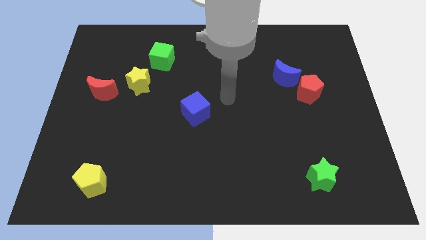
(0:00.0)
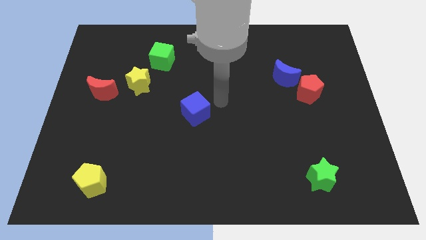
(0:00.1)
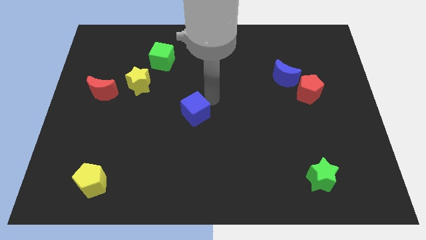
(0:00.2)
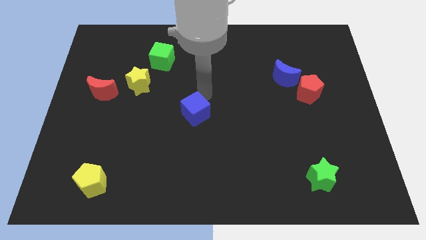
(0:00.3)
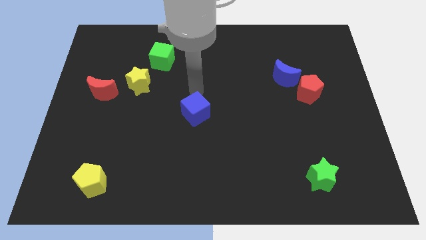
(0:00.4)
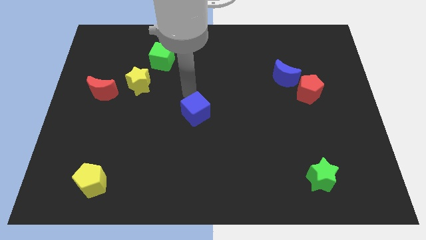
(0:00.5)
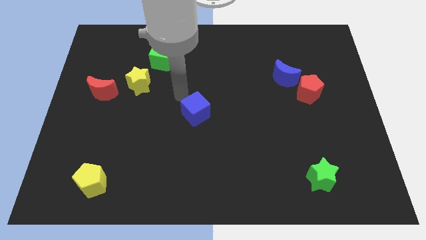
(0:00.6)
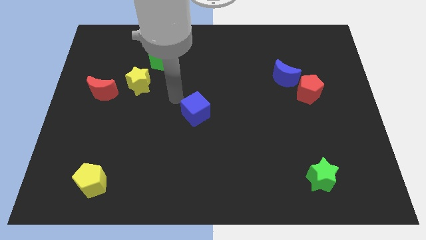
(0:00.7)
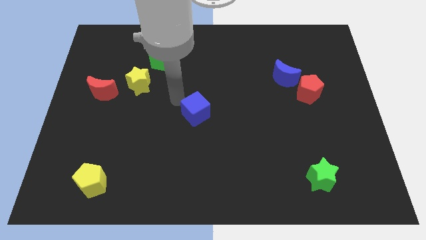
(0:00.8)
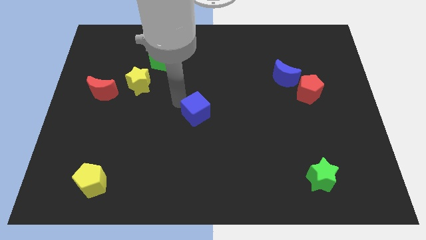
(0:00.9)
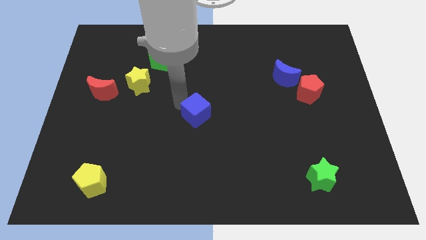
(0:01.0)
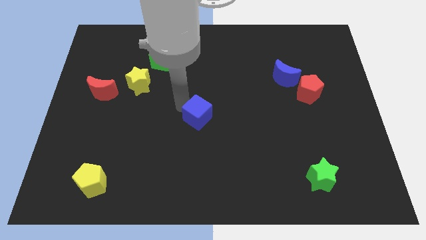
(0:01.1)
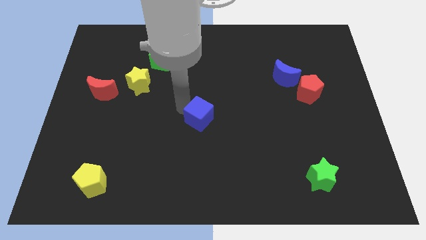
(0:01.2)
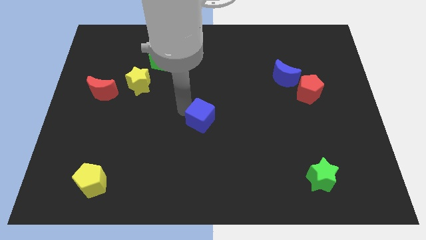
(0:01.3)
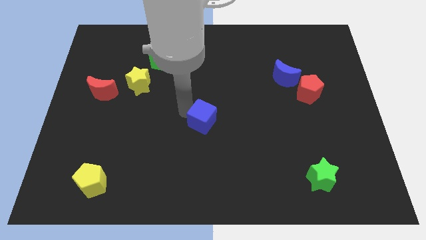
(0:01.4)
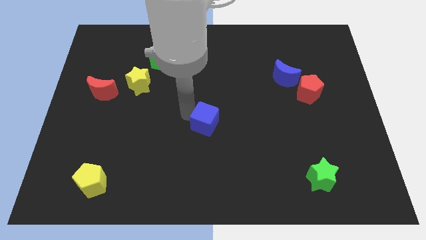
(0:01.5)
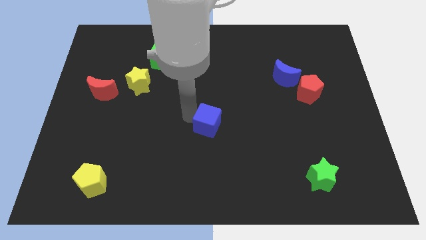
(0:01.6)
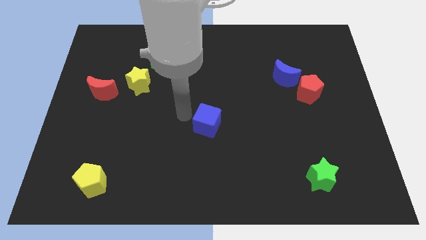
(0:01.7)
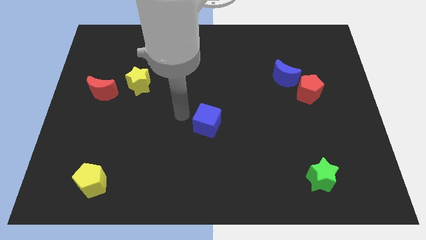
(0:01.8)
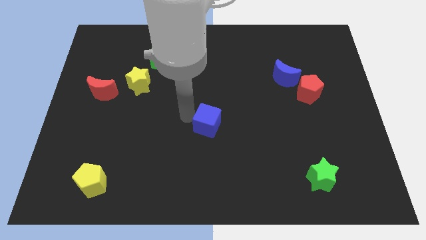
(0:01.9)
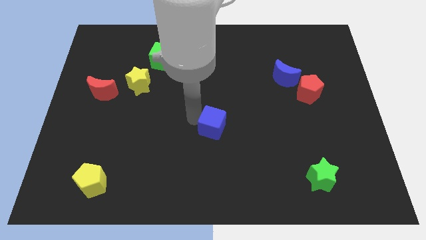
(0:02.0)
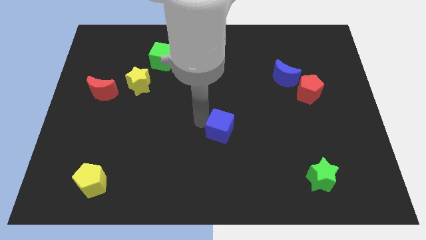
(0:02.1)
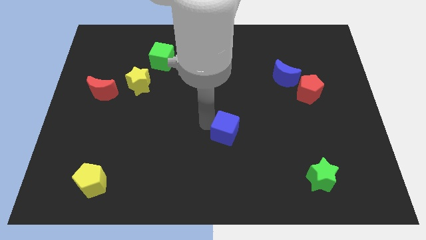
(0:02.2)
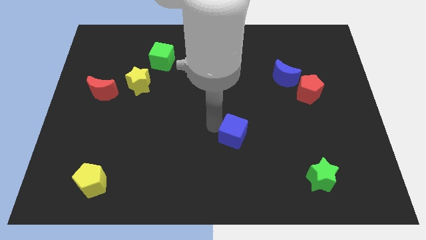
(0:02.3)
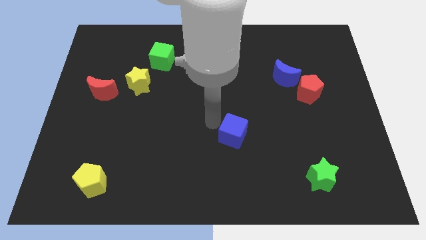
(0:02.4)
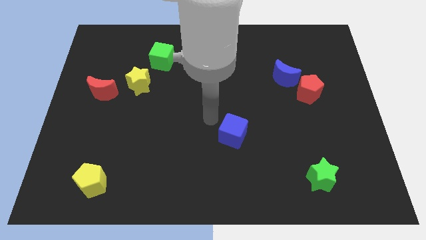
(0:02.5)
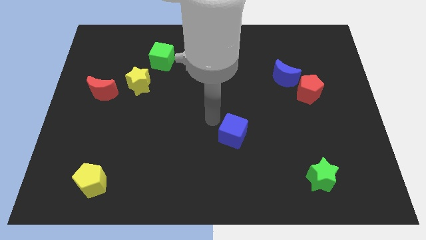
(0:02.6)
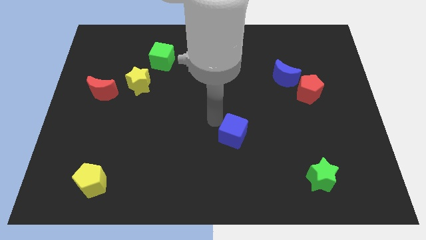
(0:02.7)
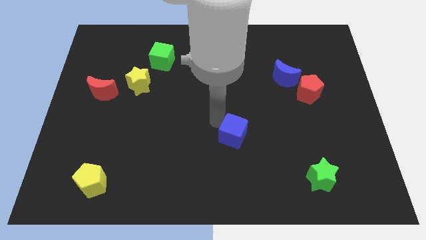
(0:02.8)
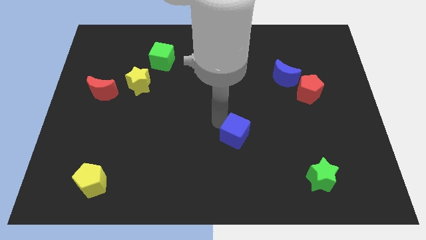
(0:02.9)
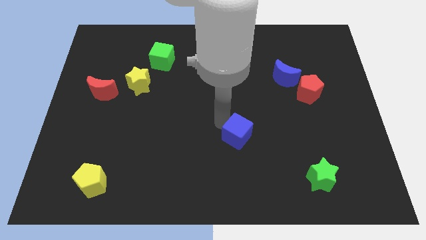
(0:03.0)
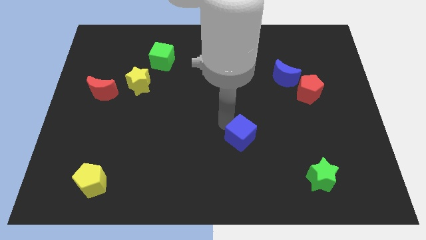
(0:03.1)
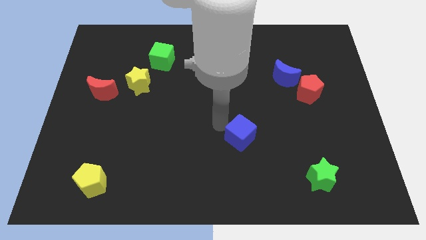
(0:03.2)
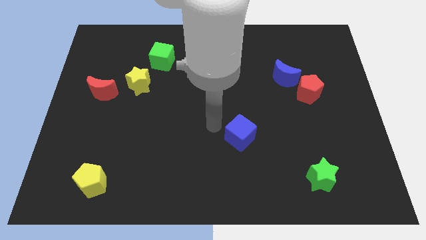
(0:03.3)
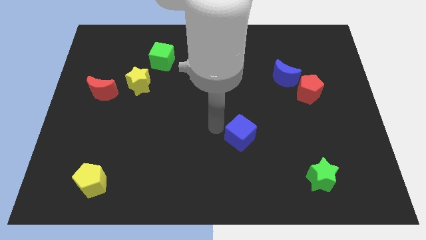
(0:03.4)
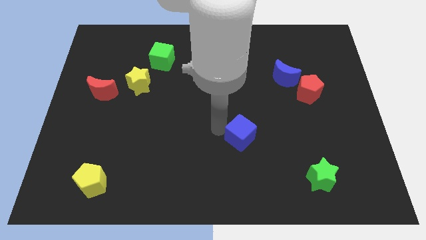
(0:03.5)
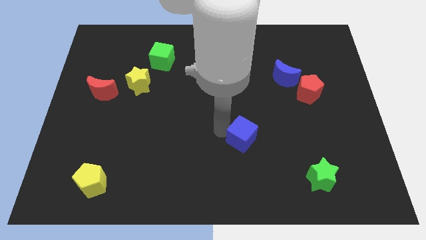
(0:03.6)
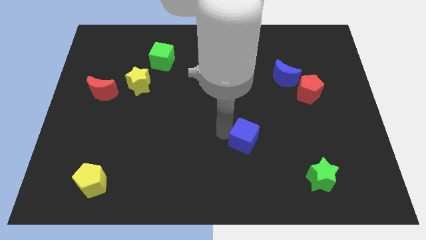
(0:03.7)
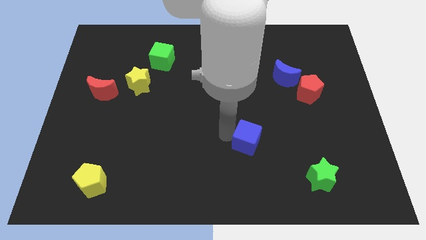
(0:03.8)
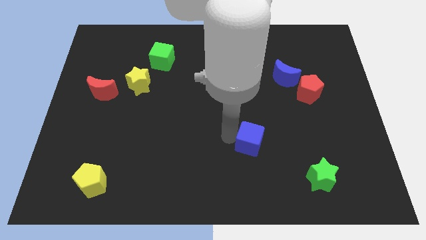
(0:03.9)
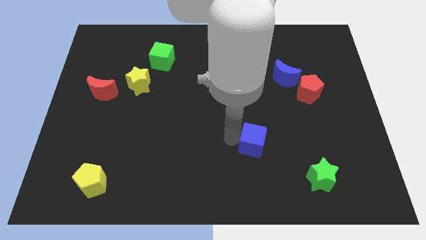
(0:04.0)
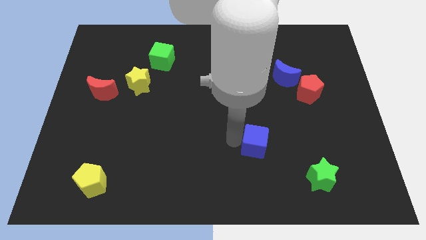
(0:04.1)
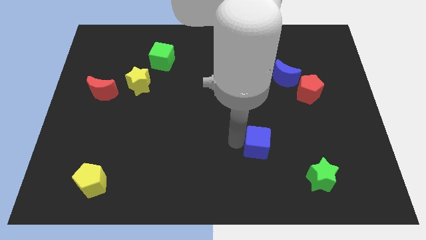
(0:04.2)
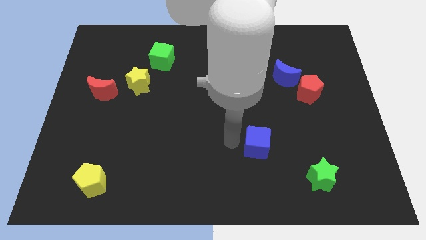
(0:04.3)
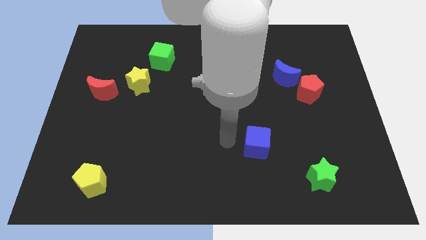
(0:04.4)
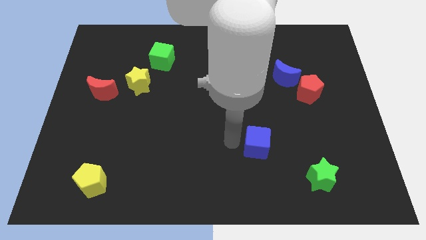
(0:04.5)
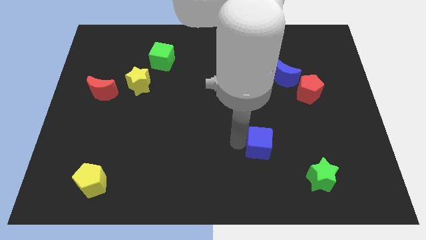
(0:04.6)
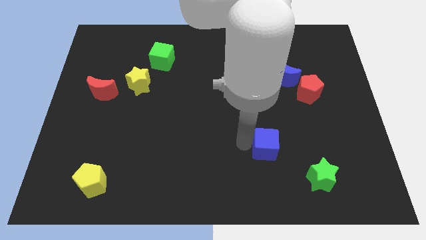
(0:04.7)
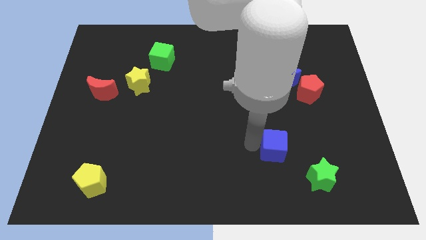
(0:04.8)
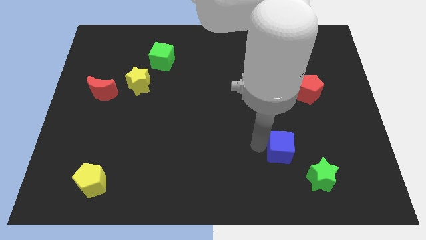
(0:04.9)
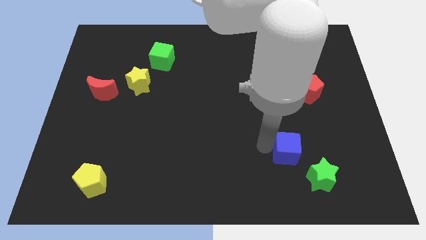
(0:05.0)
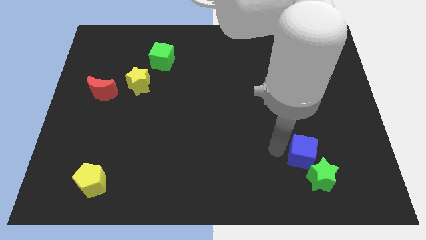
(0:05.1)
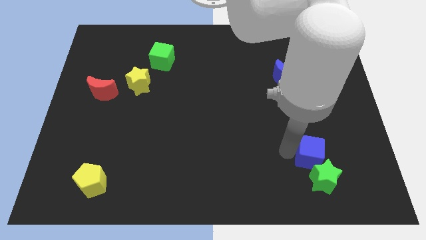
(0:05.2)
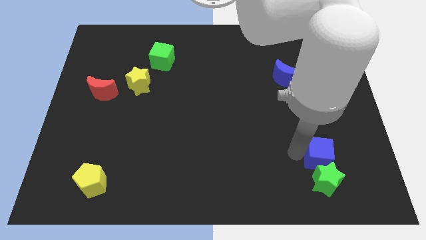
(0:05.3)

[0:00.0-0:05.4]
put the blue cube diagonally up and to the right of the green star

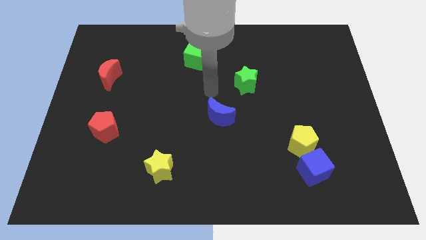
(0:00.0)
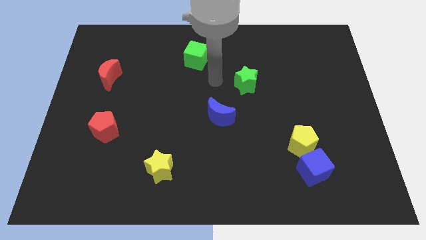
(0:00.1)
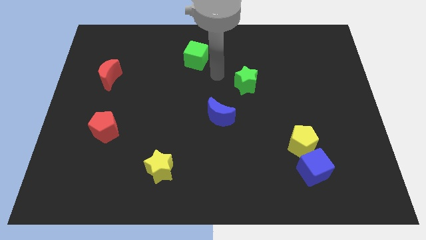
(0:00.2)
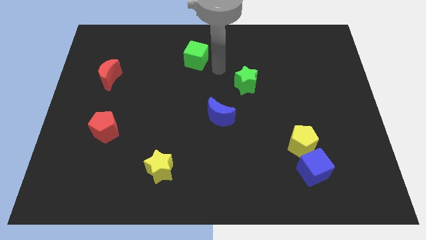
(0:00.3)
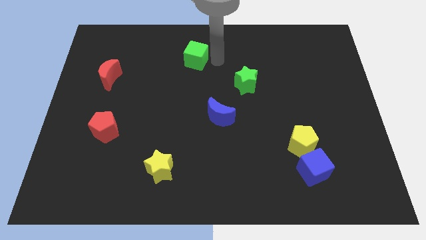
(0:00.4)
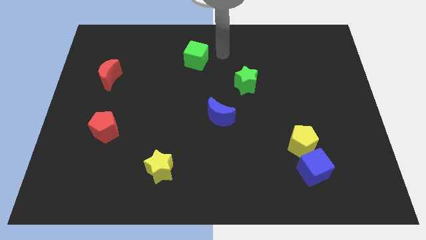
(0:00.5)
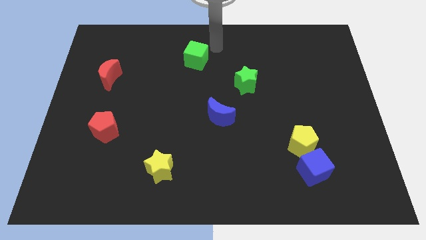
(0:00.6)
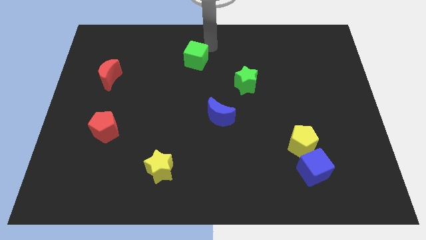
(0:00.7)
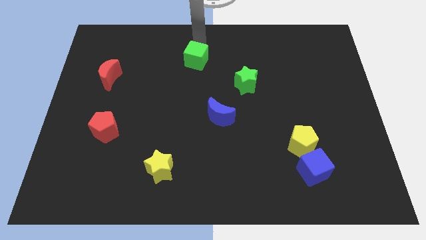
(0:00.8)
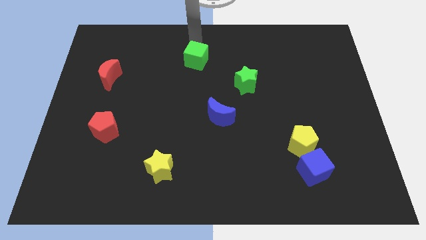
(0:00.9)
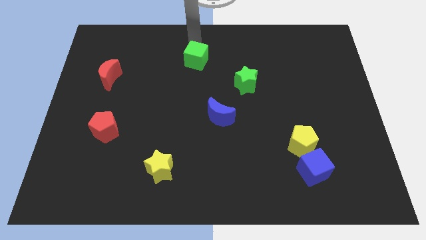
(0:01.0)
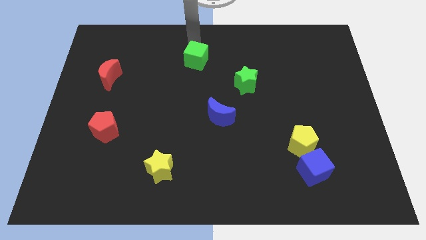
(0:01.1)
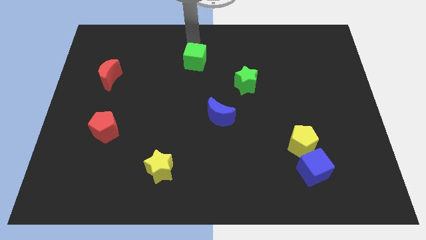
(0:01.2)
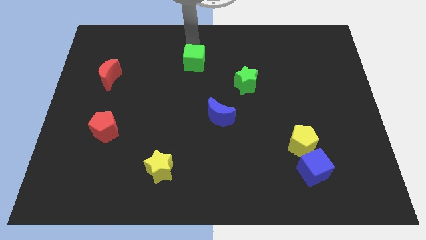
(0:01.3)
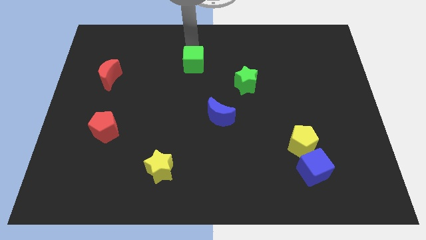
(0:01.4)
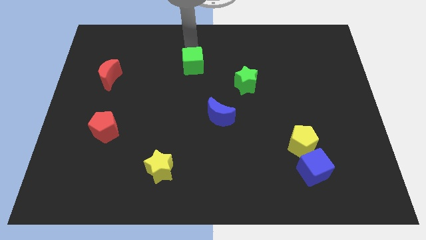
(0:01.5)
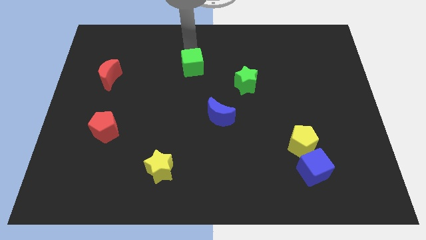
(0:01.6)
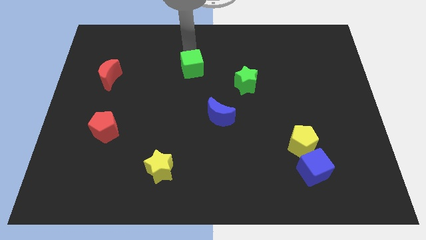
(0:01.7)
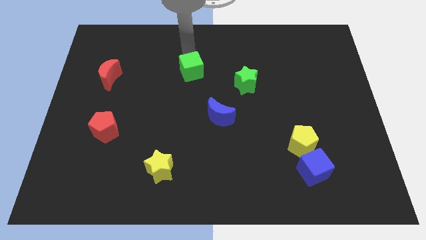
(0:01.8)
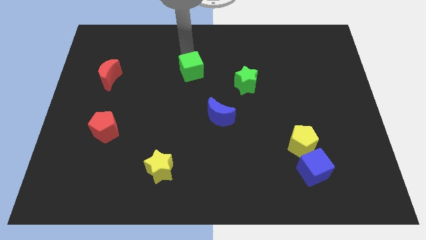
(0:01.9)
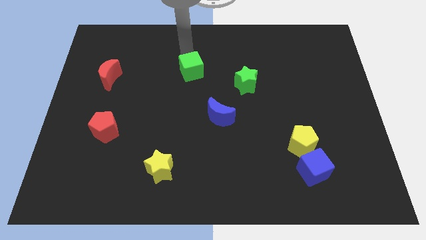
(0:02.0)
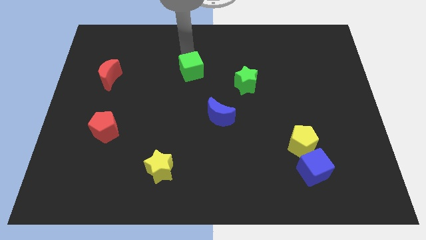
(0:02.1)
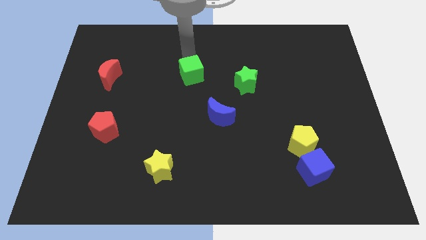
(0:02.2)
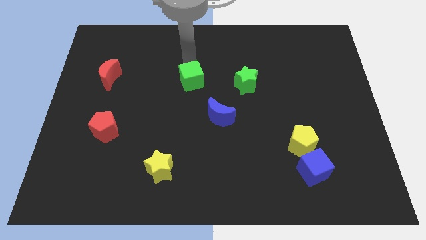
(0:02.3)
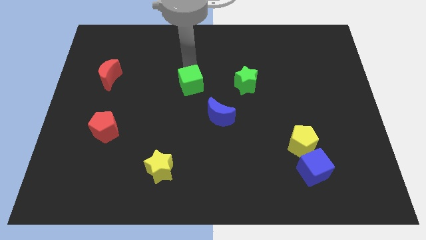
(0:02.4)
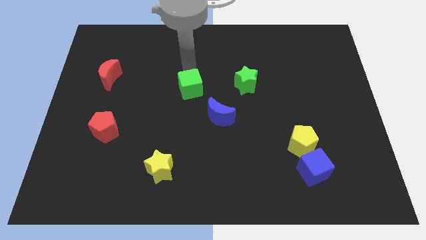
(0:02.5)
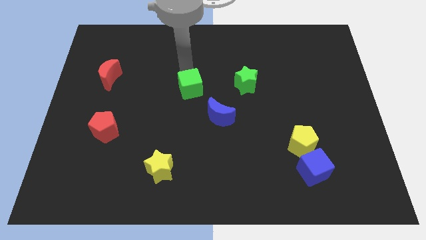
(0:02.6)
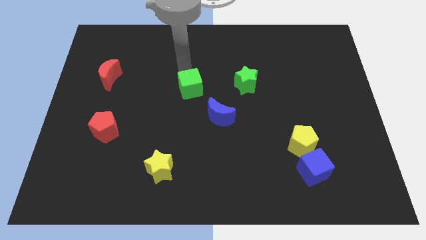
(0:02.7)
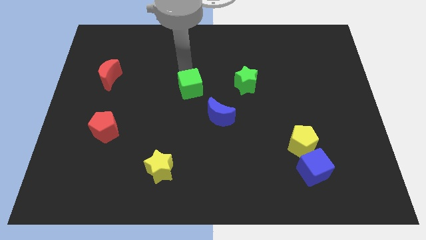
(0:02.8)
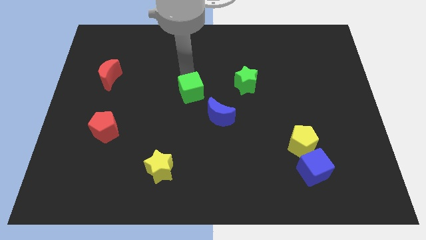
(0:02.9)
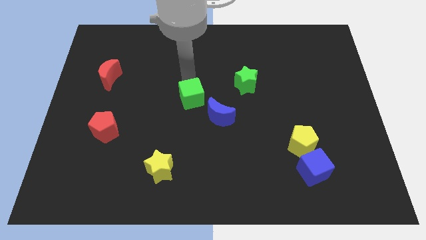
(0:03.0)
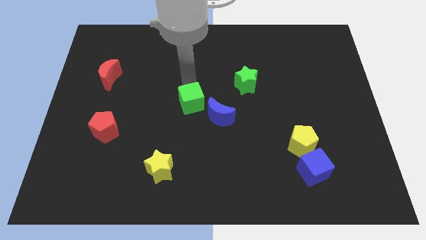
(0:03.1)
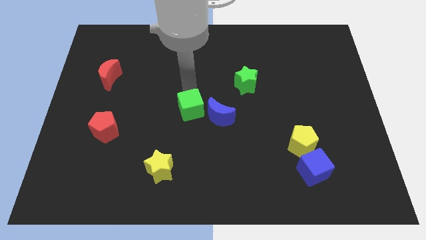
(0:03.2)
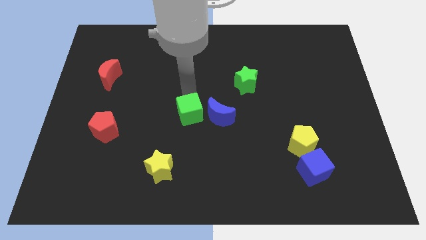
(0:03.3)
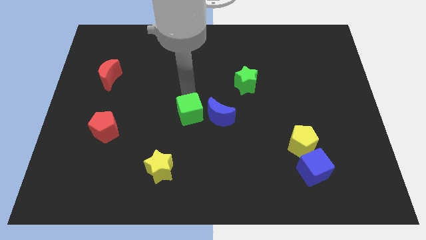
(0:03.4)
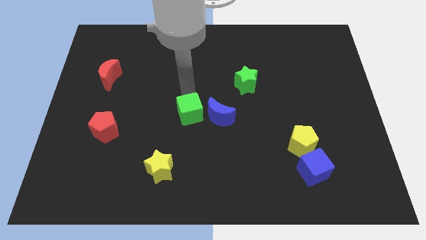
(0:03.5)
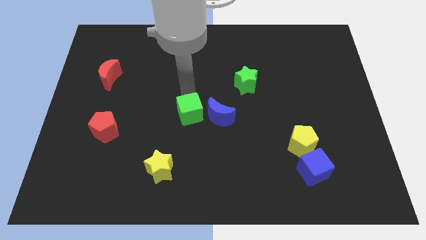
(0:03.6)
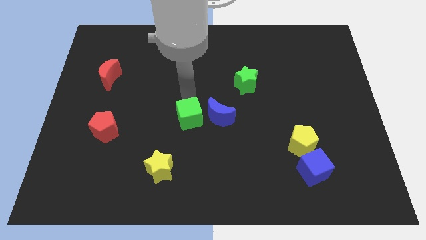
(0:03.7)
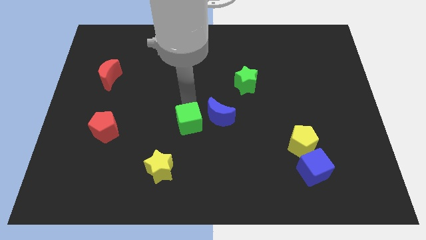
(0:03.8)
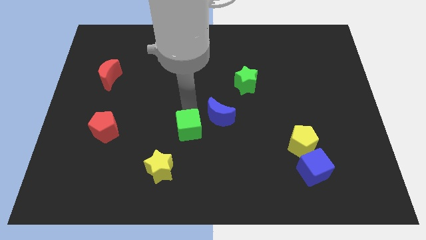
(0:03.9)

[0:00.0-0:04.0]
push the green cube diagonally up and to the right of the yellow star
